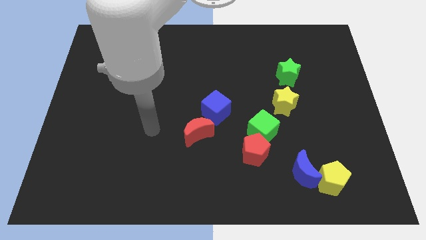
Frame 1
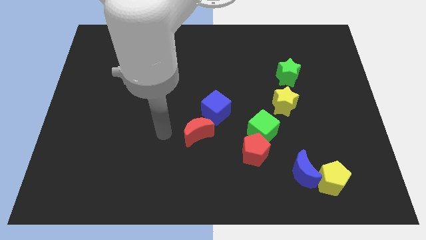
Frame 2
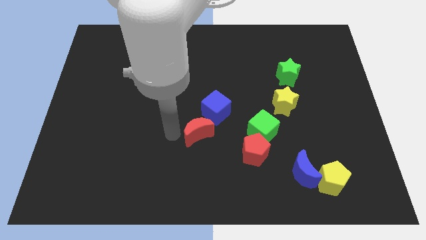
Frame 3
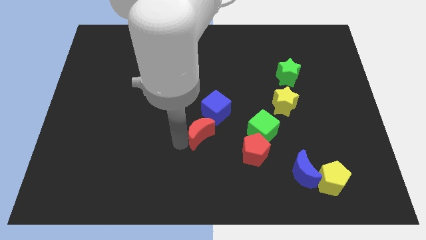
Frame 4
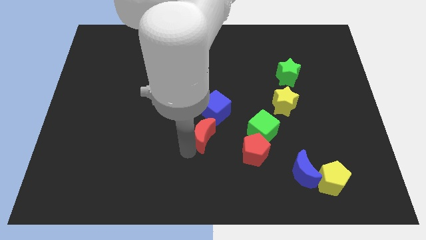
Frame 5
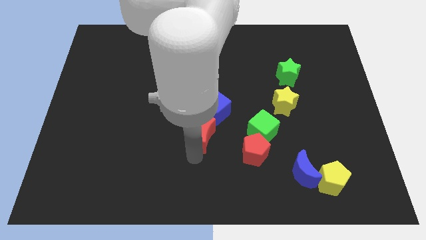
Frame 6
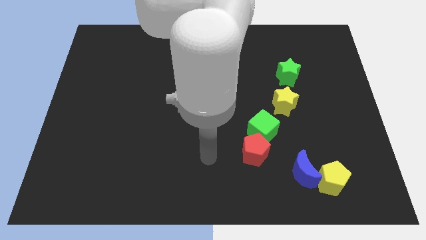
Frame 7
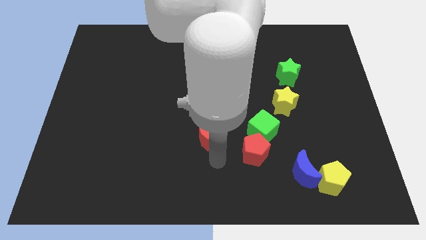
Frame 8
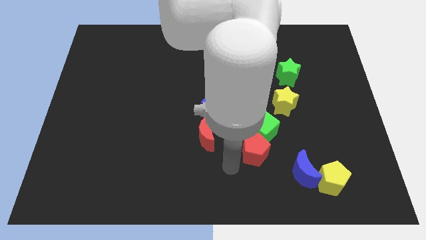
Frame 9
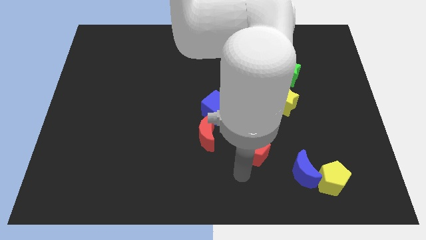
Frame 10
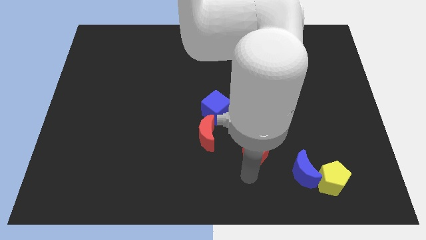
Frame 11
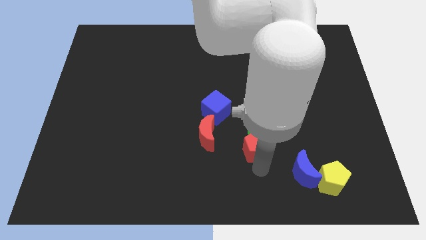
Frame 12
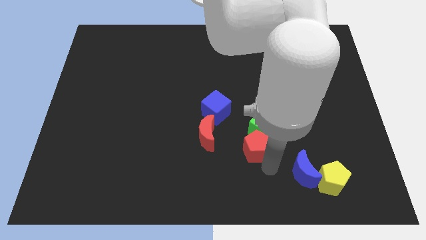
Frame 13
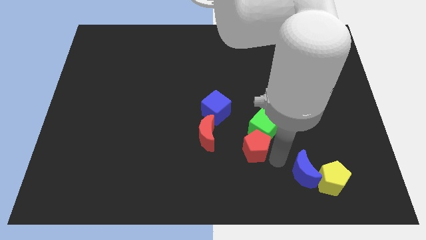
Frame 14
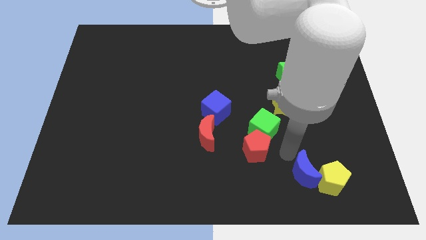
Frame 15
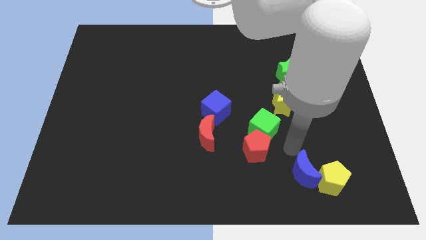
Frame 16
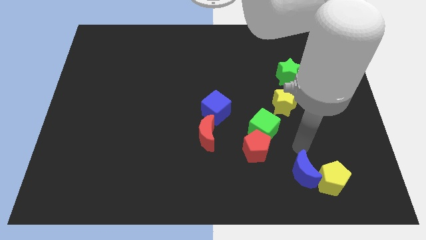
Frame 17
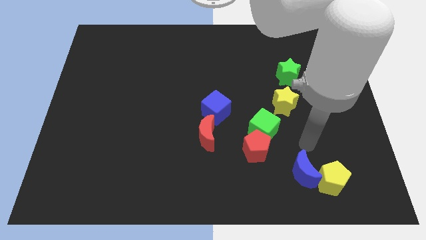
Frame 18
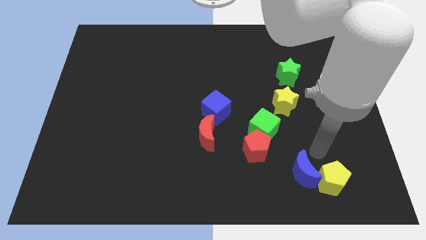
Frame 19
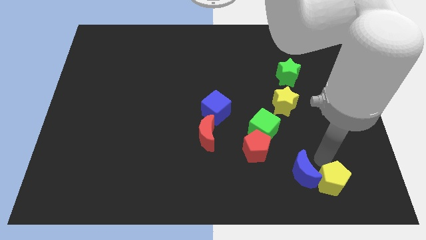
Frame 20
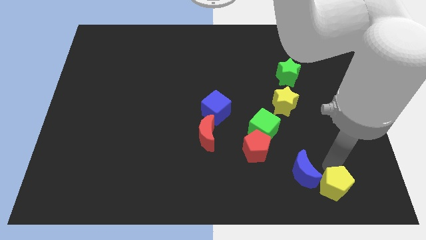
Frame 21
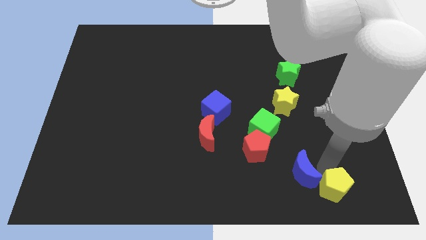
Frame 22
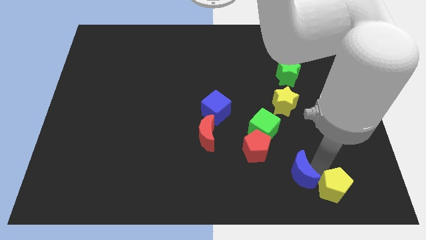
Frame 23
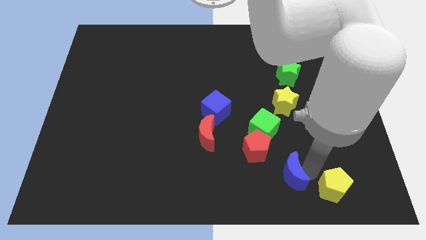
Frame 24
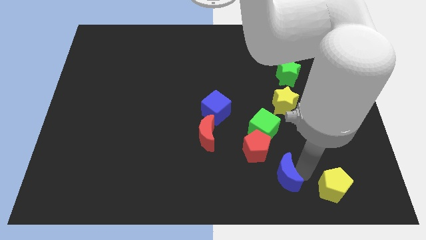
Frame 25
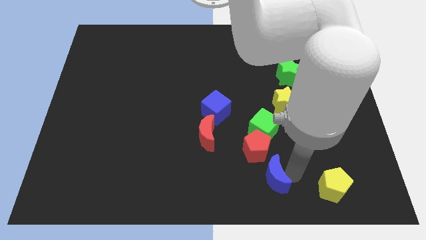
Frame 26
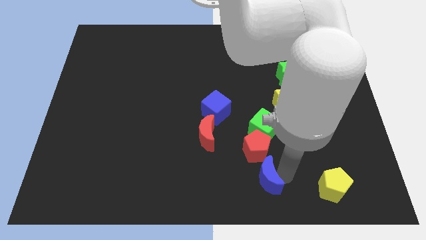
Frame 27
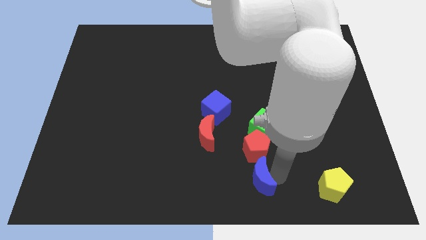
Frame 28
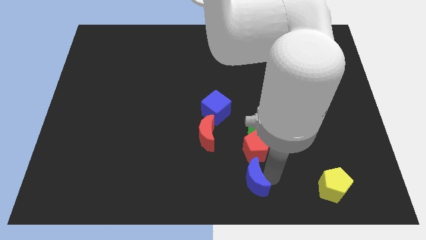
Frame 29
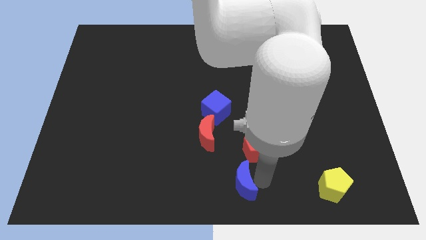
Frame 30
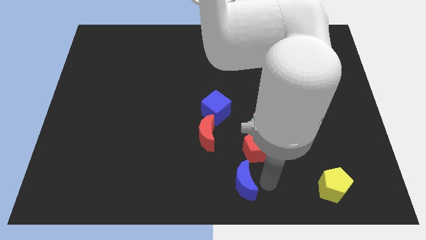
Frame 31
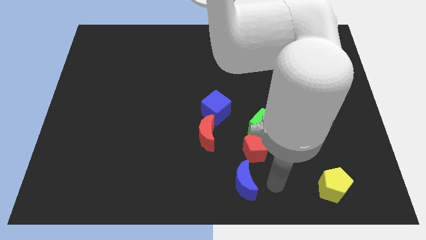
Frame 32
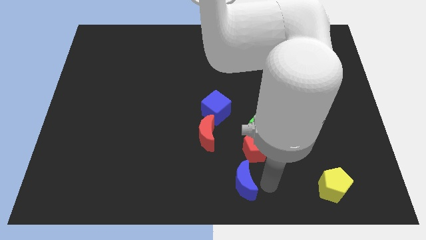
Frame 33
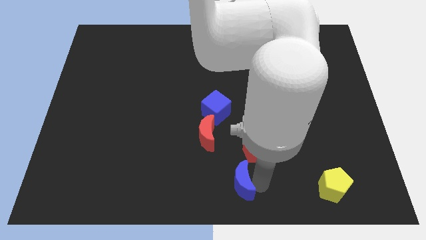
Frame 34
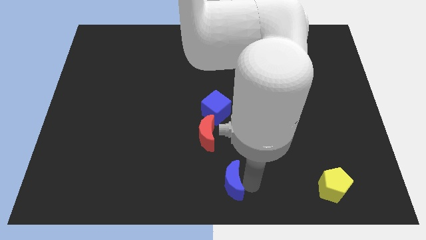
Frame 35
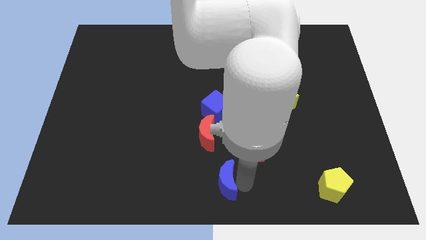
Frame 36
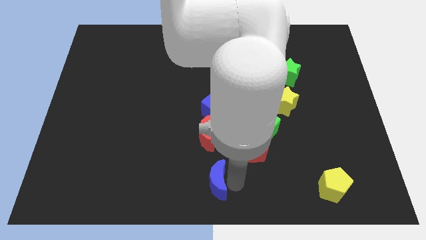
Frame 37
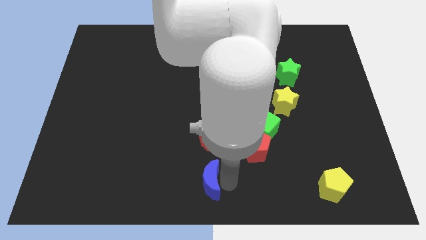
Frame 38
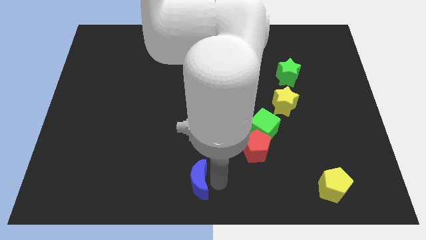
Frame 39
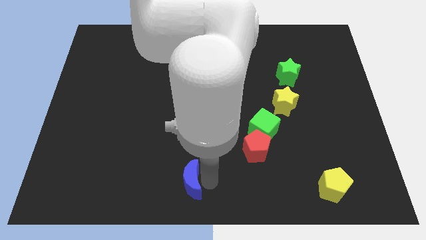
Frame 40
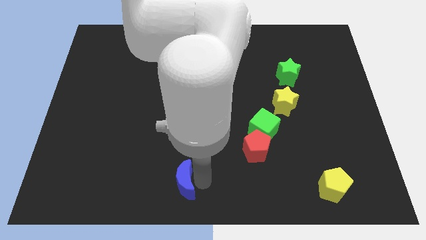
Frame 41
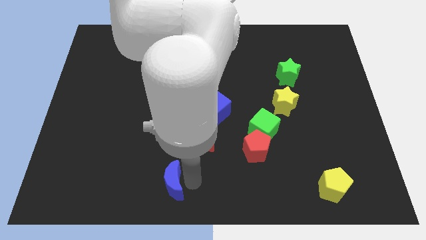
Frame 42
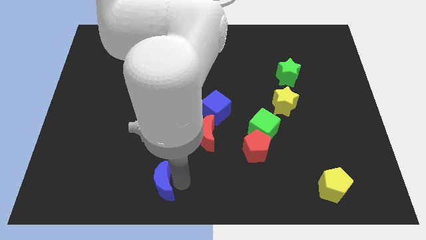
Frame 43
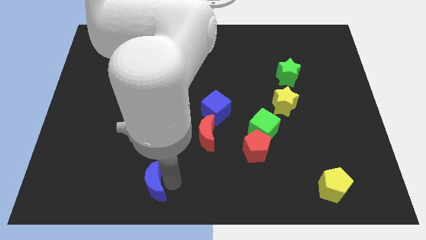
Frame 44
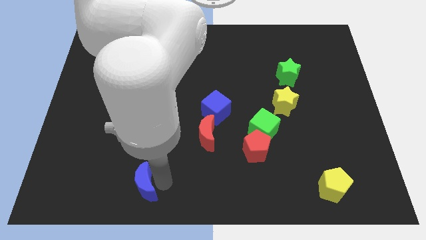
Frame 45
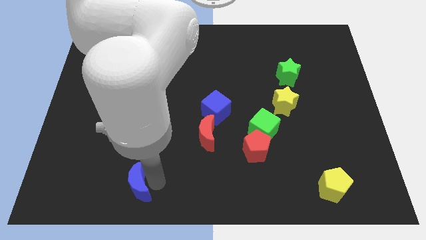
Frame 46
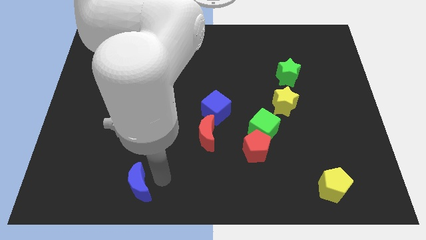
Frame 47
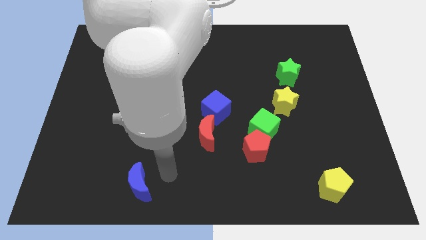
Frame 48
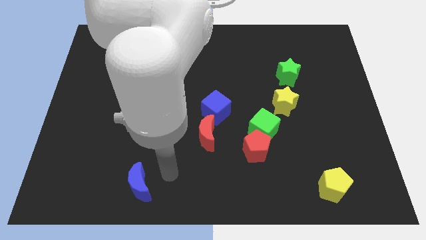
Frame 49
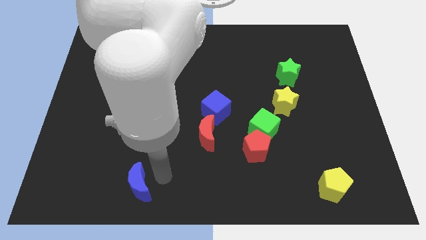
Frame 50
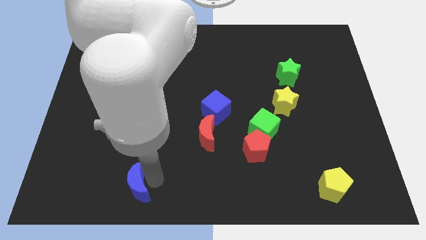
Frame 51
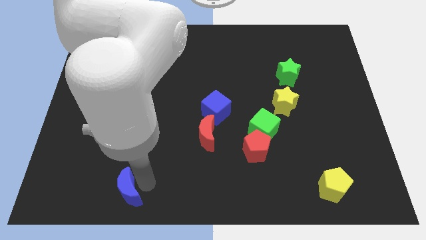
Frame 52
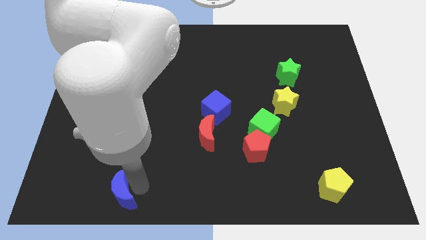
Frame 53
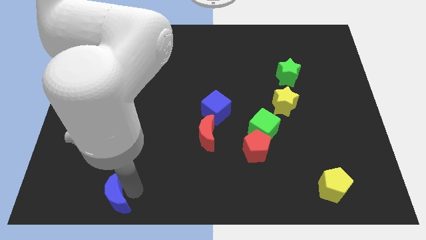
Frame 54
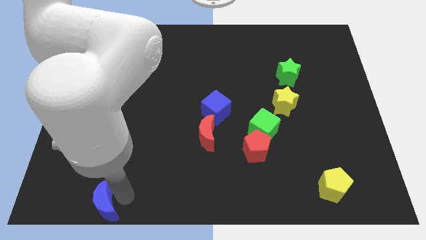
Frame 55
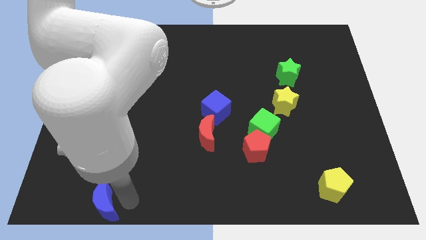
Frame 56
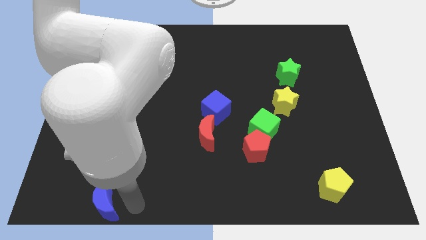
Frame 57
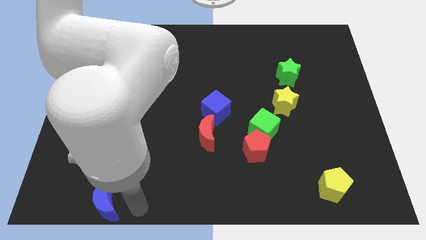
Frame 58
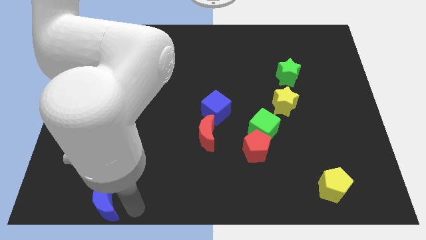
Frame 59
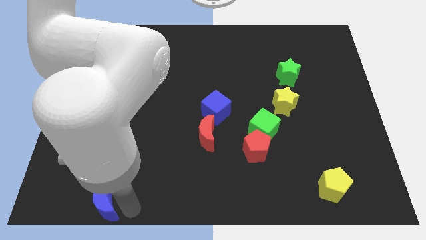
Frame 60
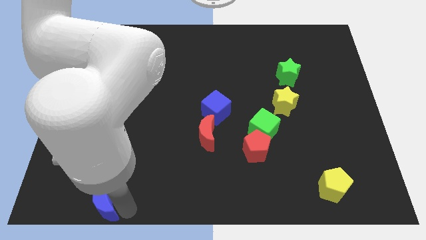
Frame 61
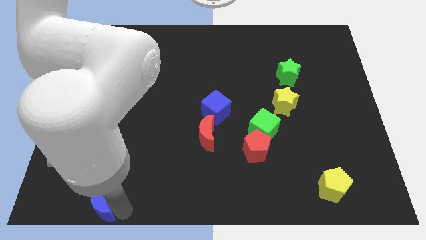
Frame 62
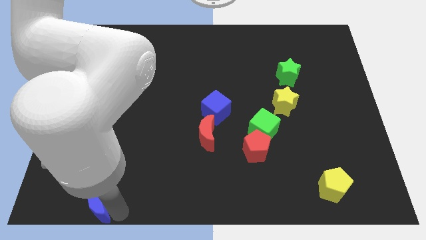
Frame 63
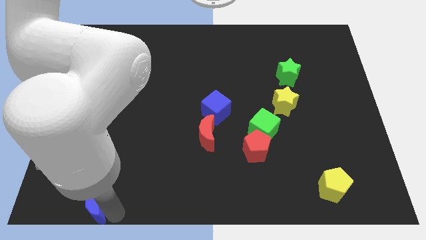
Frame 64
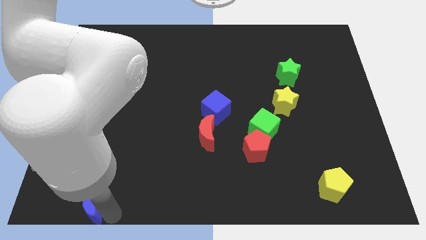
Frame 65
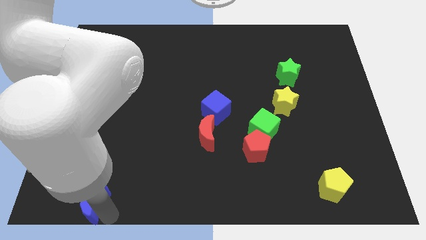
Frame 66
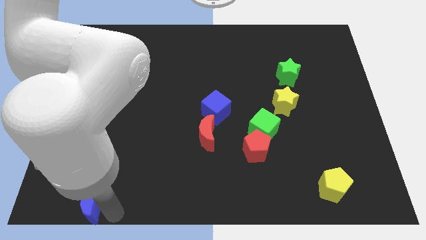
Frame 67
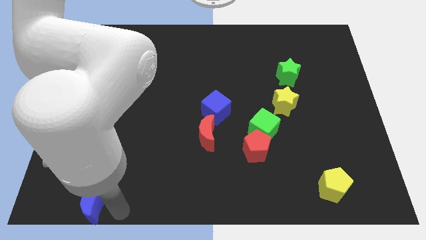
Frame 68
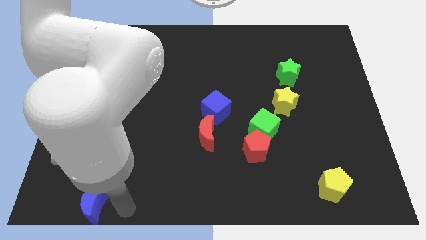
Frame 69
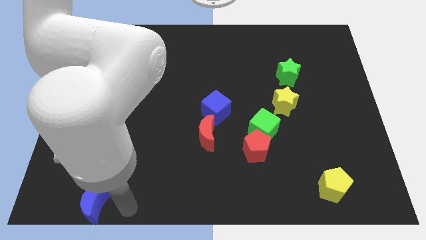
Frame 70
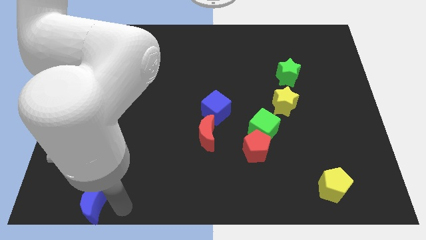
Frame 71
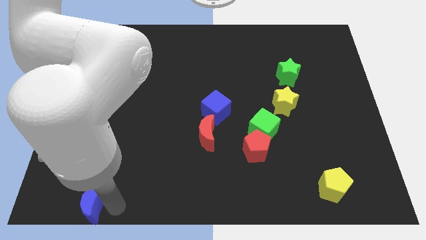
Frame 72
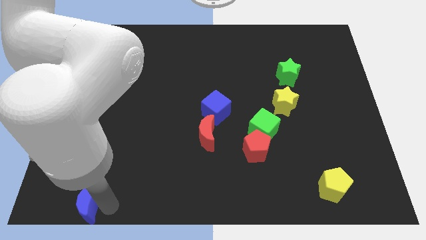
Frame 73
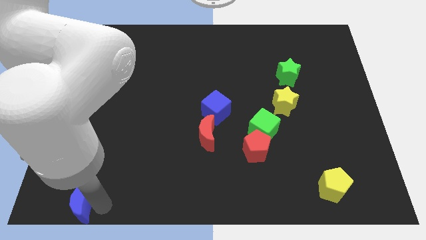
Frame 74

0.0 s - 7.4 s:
put the blue moon to the bottom left corner

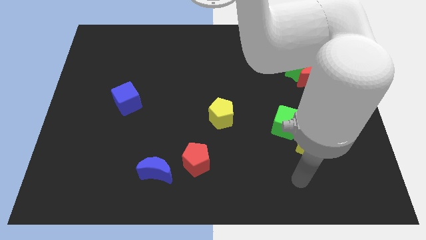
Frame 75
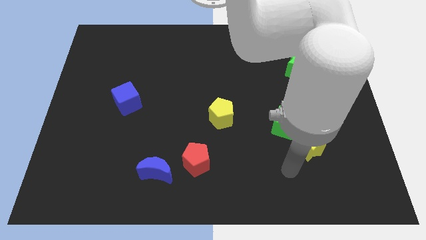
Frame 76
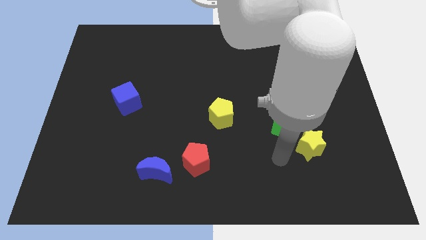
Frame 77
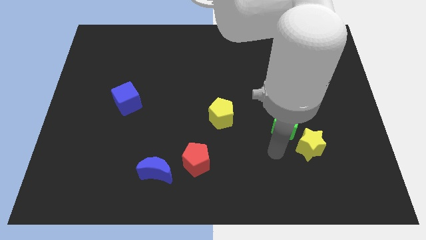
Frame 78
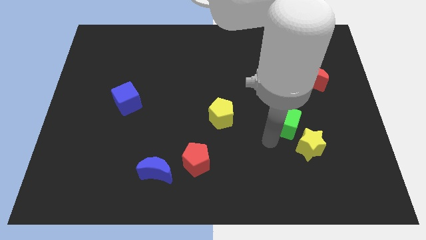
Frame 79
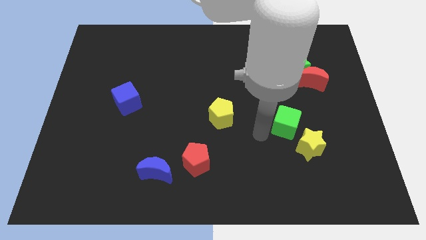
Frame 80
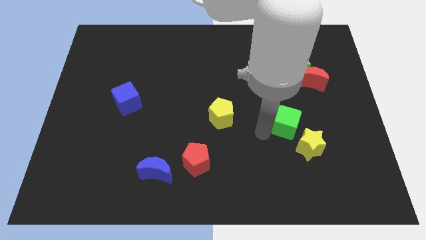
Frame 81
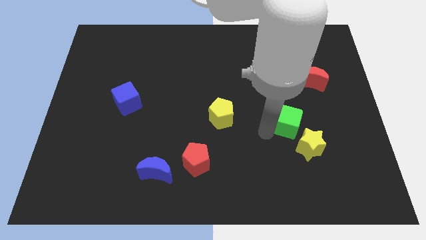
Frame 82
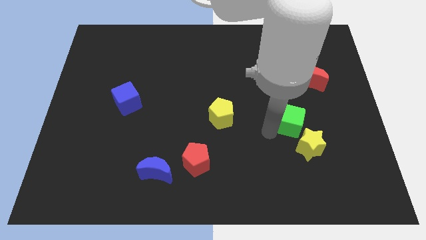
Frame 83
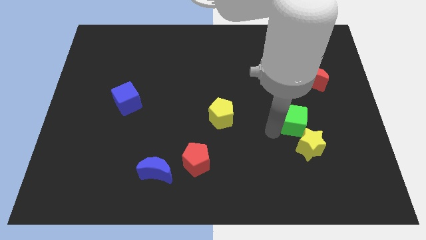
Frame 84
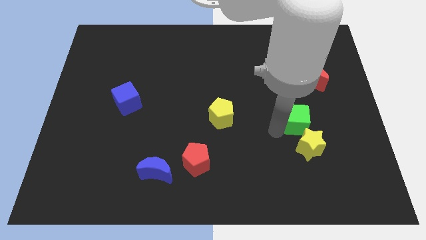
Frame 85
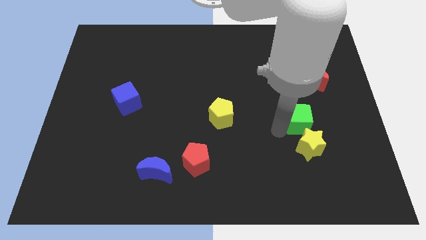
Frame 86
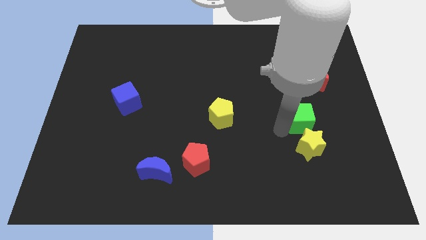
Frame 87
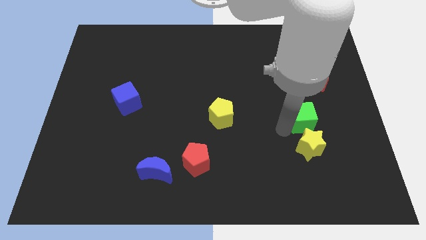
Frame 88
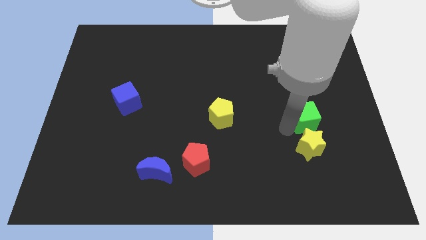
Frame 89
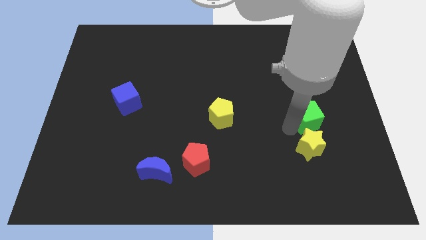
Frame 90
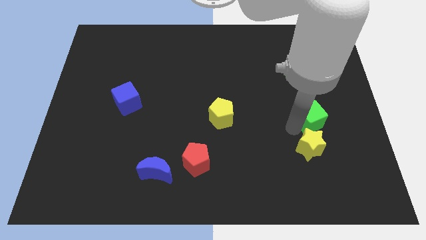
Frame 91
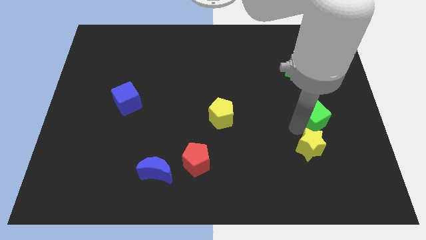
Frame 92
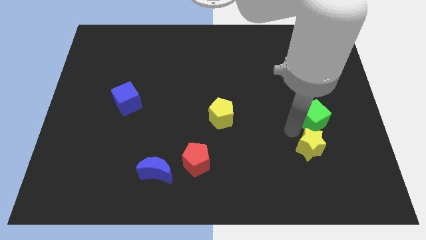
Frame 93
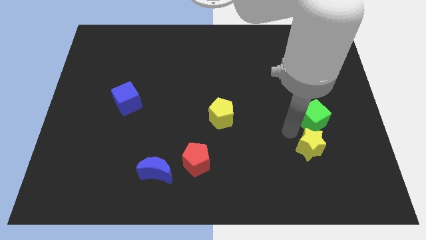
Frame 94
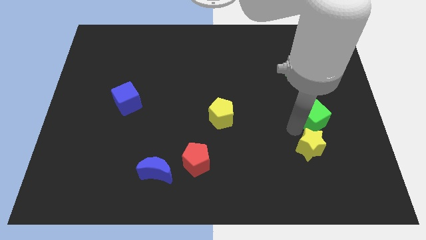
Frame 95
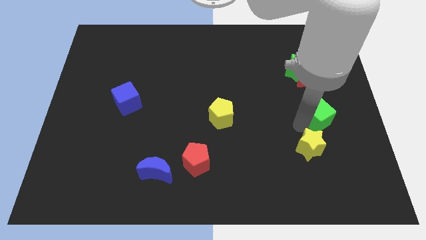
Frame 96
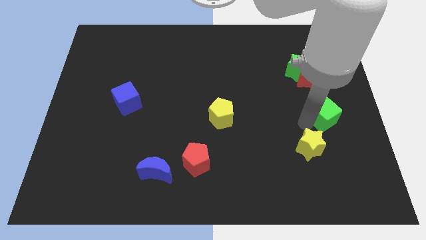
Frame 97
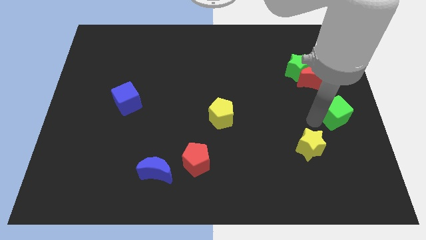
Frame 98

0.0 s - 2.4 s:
put the green cube to the center right
